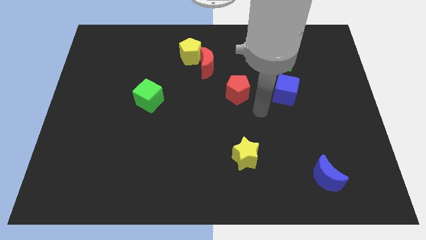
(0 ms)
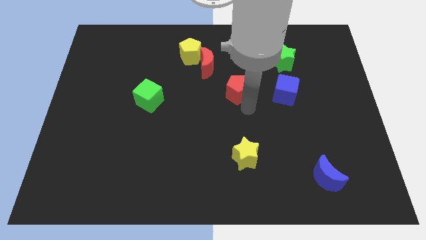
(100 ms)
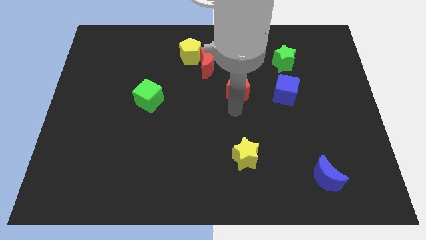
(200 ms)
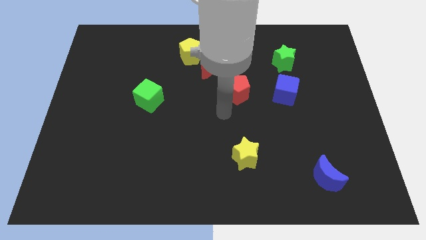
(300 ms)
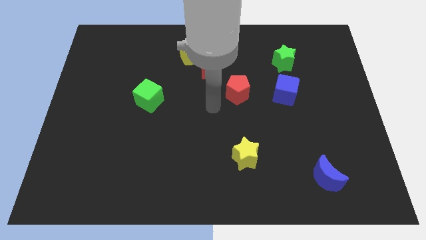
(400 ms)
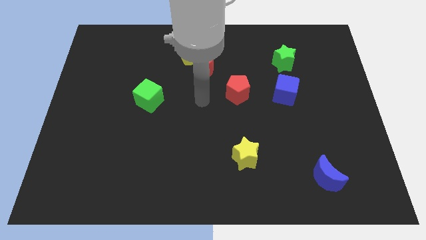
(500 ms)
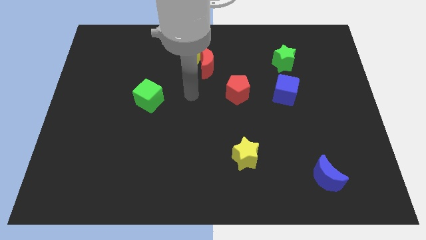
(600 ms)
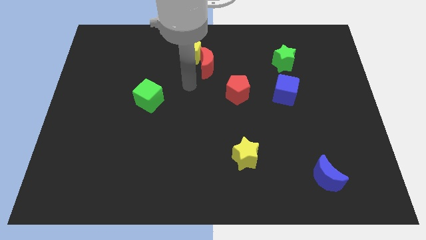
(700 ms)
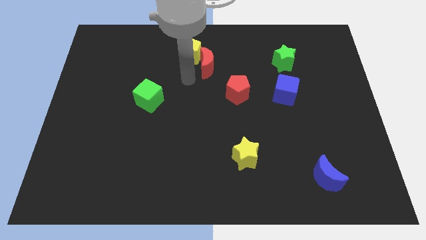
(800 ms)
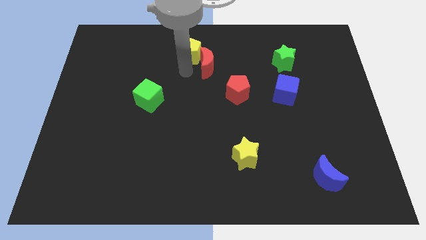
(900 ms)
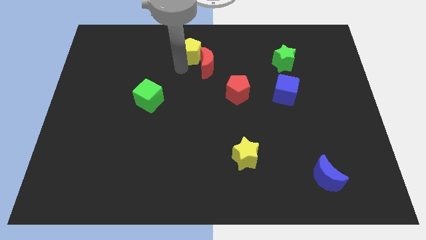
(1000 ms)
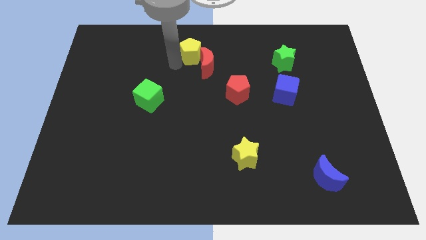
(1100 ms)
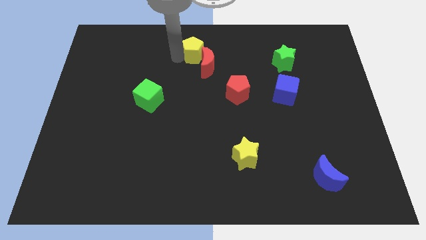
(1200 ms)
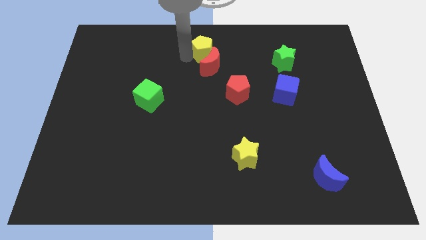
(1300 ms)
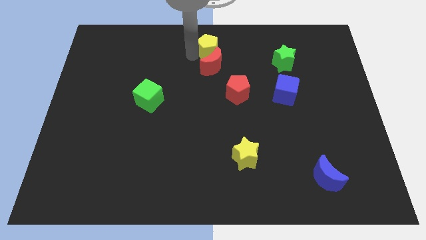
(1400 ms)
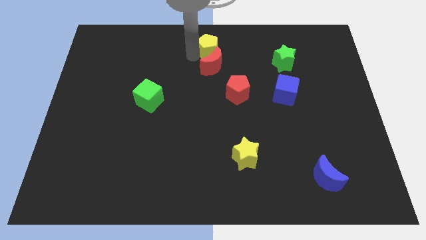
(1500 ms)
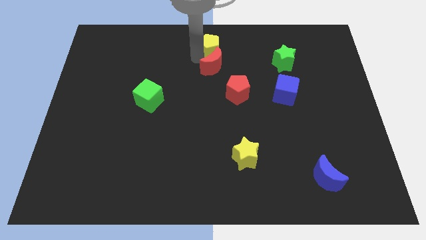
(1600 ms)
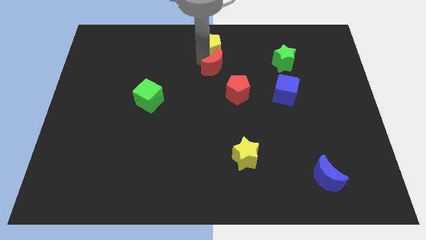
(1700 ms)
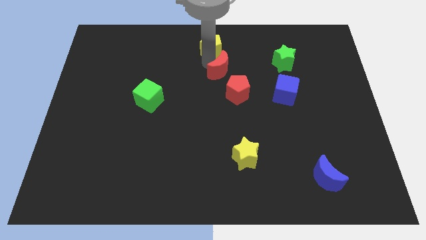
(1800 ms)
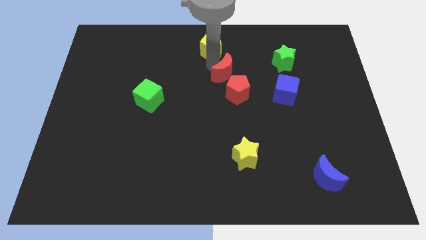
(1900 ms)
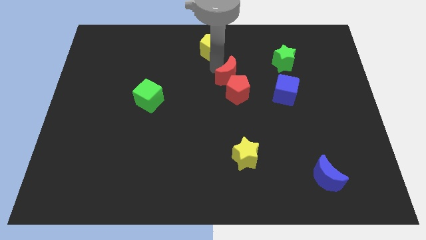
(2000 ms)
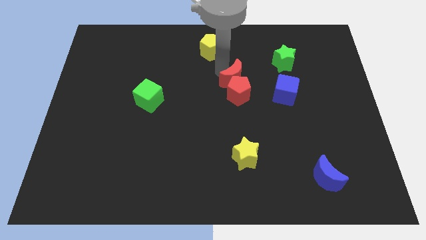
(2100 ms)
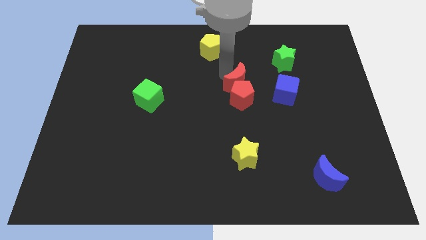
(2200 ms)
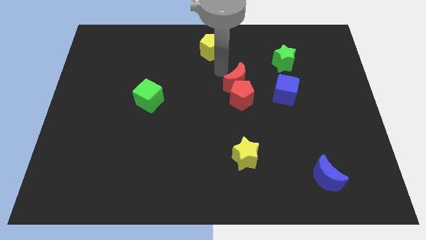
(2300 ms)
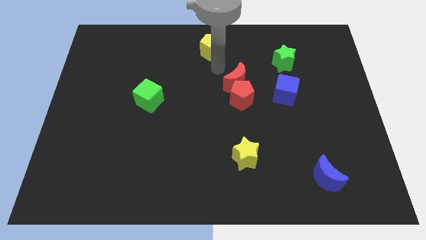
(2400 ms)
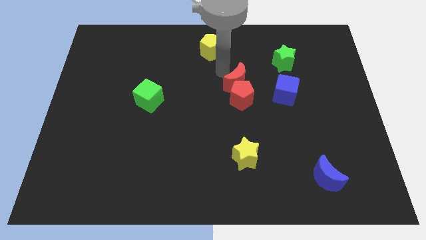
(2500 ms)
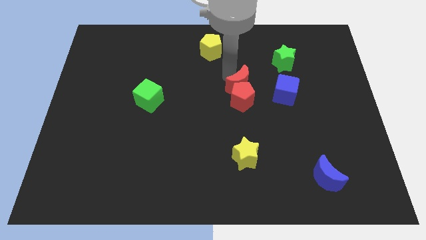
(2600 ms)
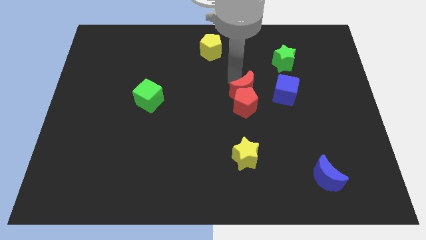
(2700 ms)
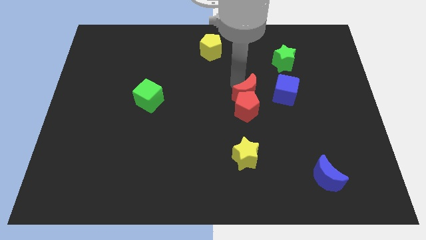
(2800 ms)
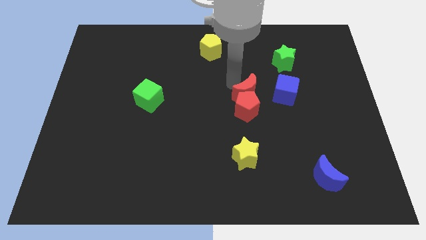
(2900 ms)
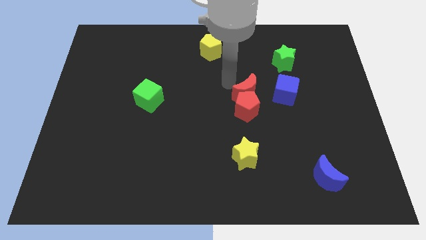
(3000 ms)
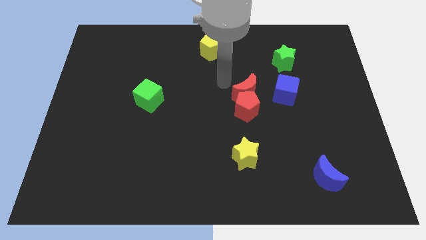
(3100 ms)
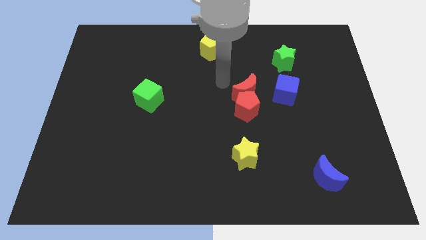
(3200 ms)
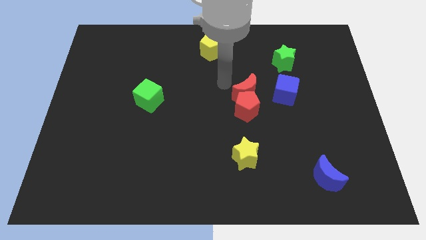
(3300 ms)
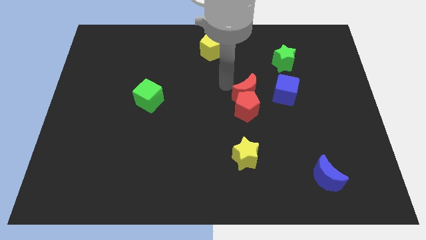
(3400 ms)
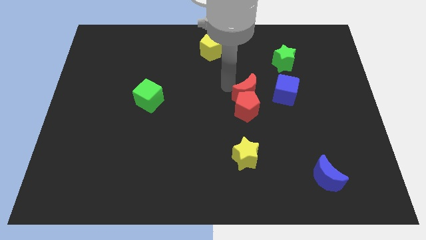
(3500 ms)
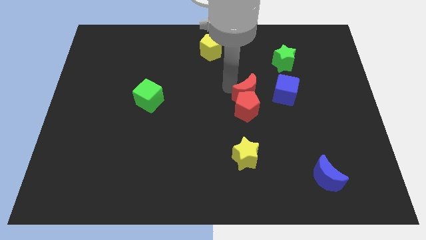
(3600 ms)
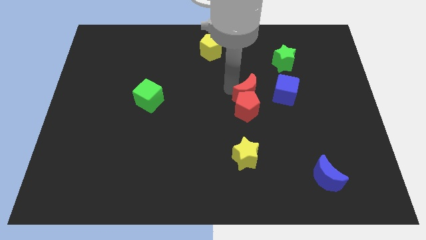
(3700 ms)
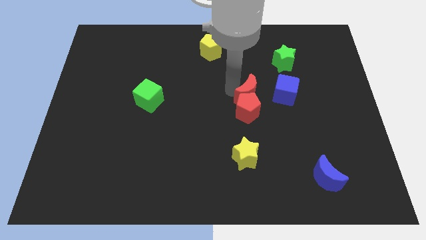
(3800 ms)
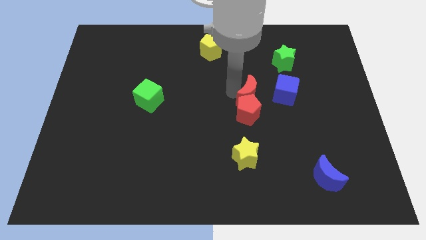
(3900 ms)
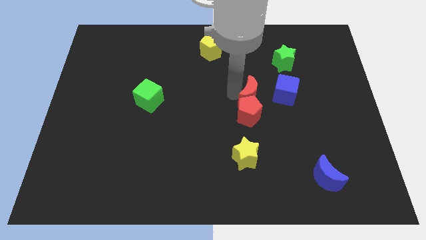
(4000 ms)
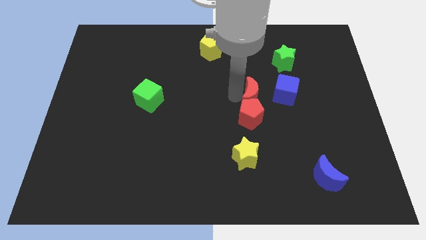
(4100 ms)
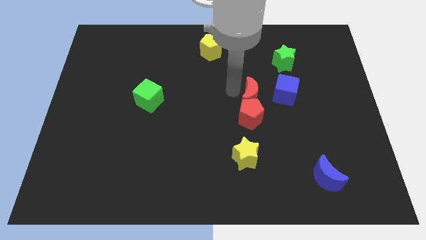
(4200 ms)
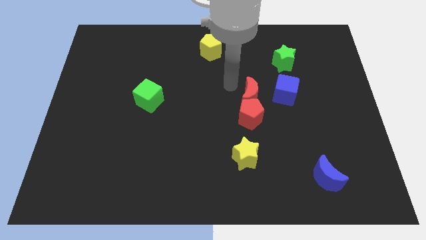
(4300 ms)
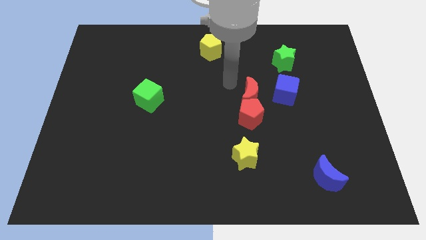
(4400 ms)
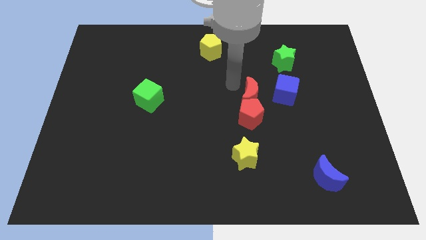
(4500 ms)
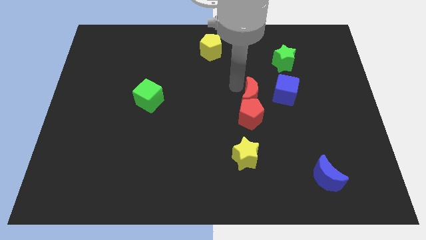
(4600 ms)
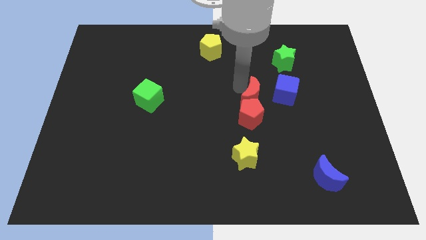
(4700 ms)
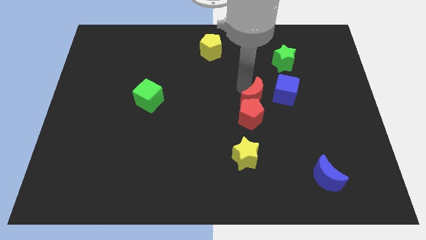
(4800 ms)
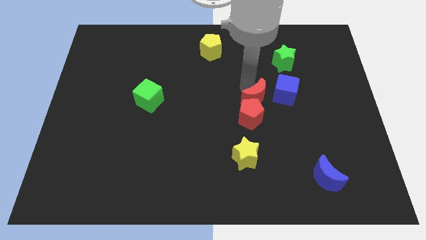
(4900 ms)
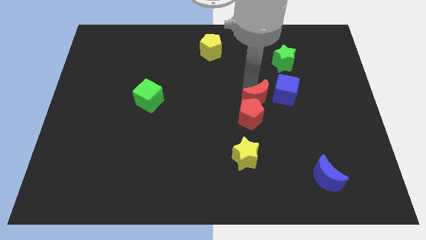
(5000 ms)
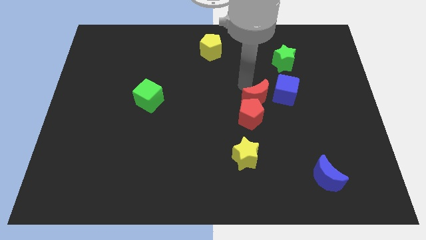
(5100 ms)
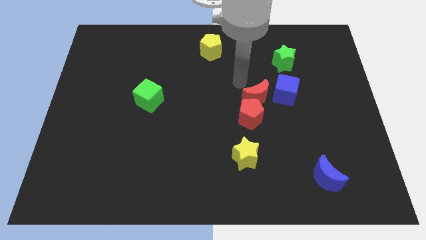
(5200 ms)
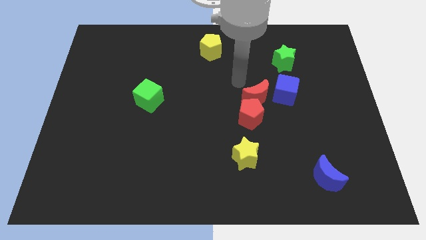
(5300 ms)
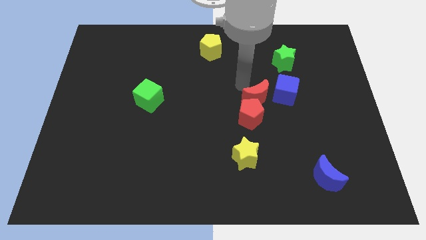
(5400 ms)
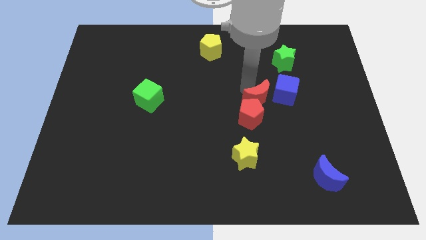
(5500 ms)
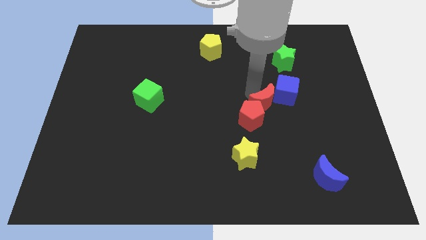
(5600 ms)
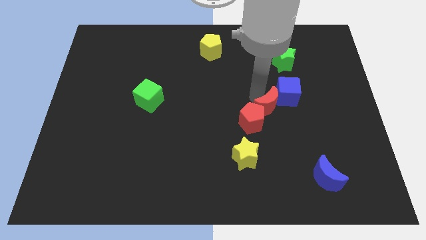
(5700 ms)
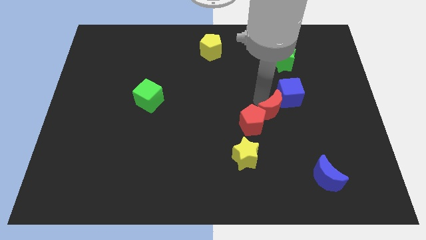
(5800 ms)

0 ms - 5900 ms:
push the red moon downwards and to the right diagonally

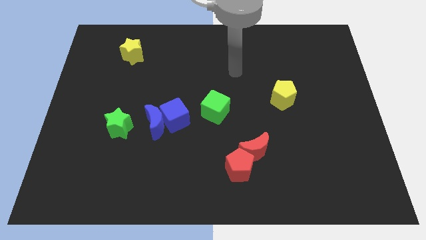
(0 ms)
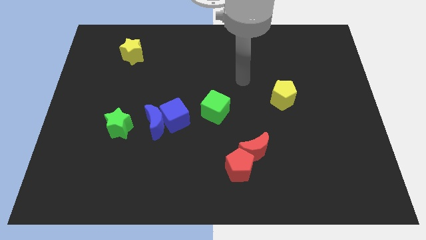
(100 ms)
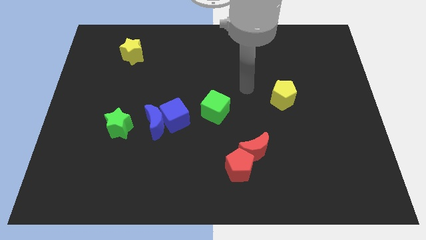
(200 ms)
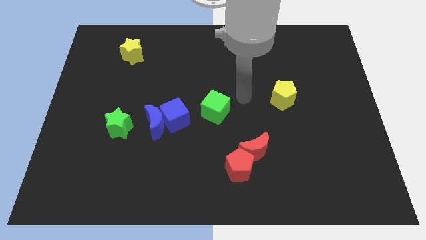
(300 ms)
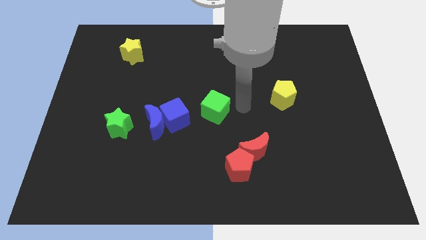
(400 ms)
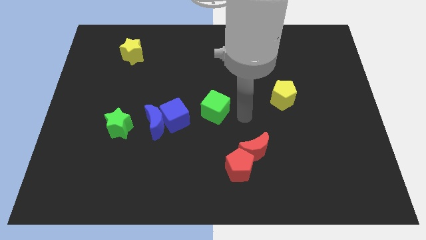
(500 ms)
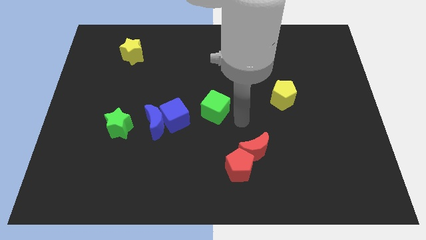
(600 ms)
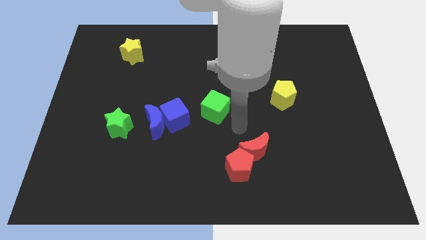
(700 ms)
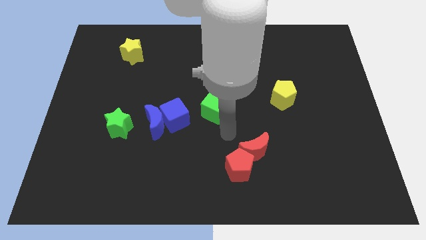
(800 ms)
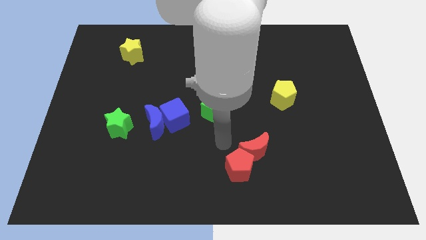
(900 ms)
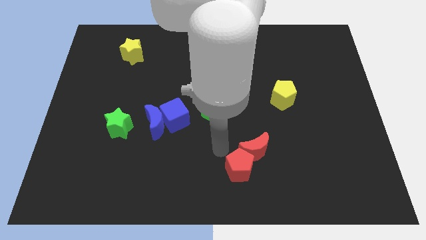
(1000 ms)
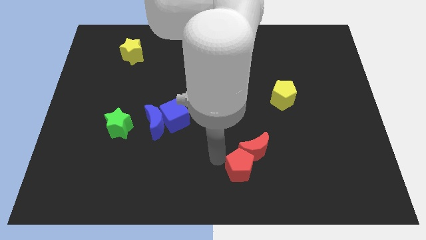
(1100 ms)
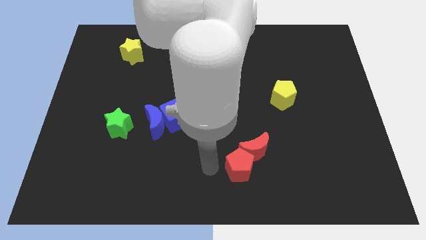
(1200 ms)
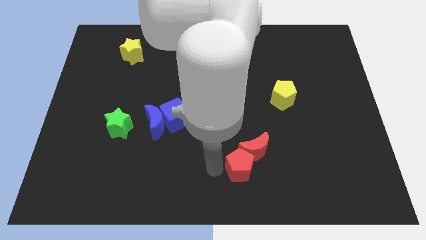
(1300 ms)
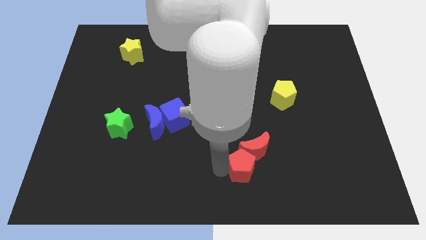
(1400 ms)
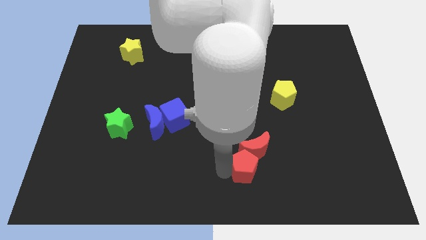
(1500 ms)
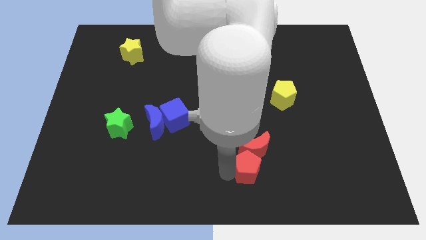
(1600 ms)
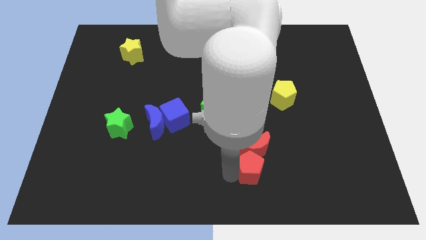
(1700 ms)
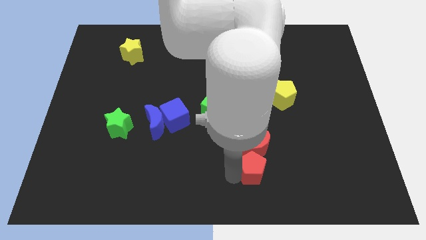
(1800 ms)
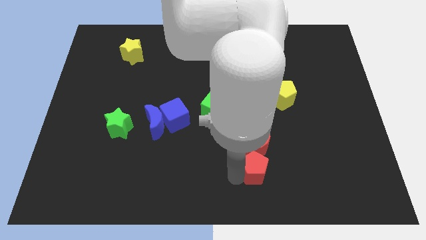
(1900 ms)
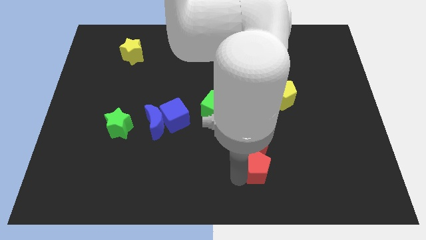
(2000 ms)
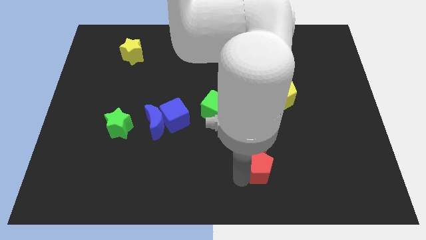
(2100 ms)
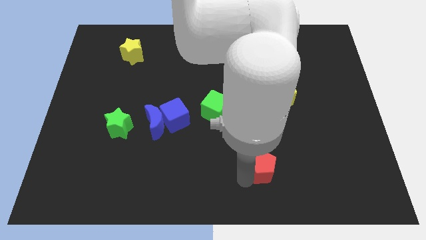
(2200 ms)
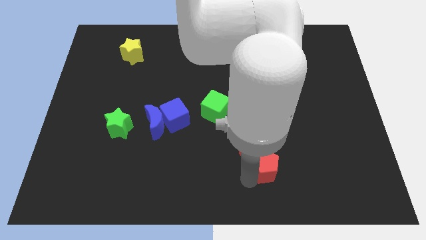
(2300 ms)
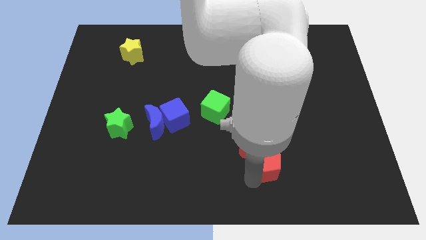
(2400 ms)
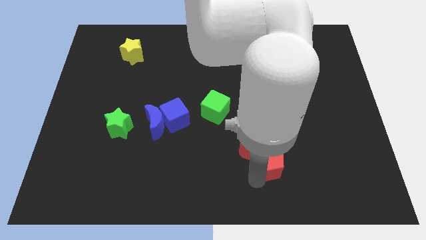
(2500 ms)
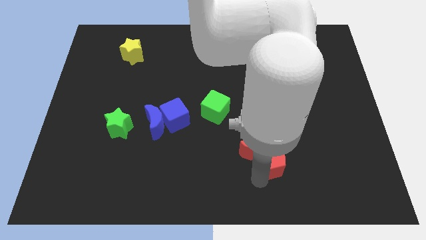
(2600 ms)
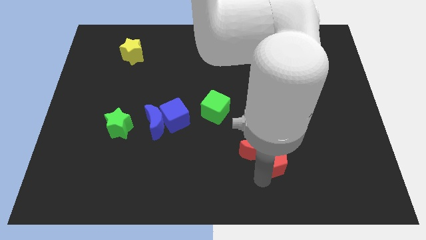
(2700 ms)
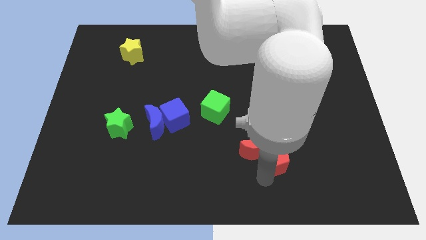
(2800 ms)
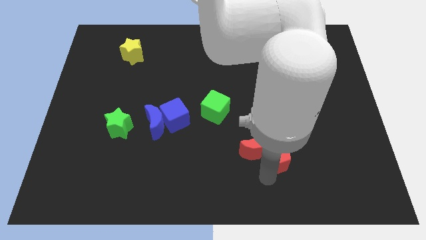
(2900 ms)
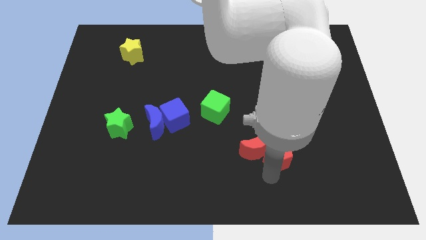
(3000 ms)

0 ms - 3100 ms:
slightly slide the red pentagon upwards and to the right diagonally
